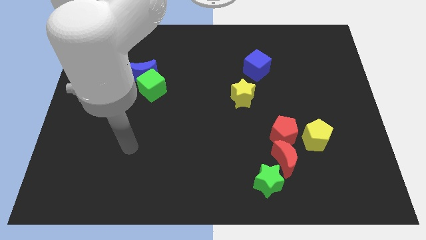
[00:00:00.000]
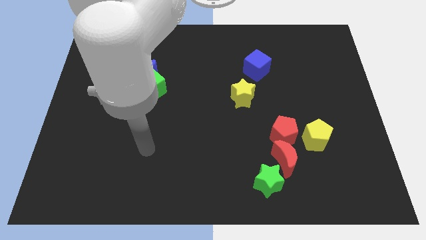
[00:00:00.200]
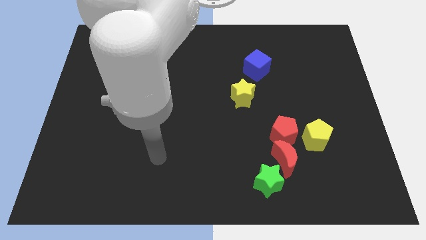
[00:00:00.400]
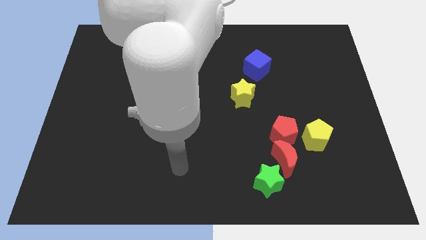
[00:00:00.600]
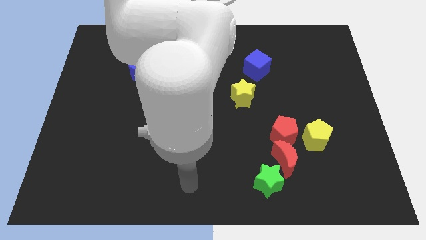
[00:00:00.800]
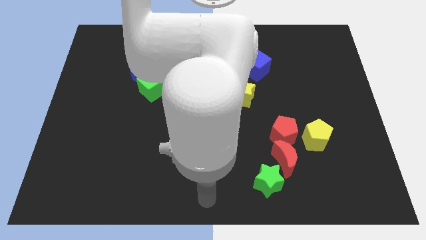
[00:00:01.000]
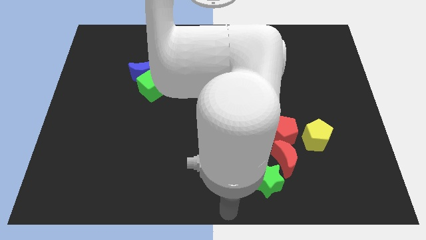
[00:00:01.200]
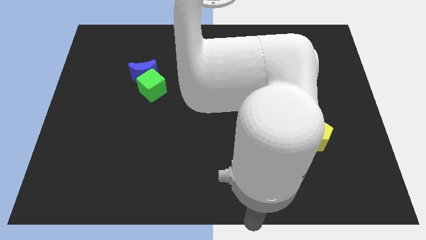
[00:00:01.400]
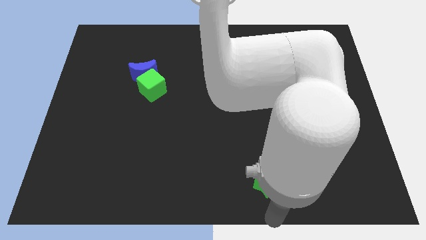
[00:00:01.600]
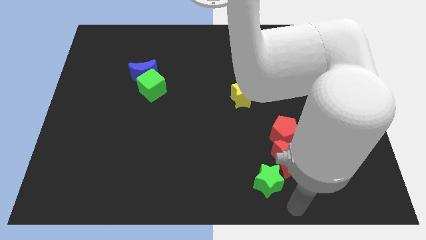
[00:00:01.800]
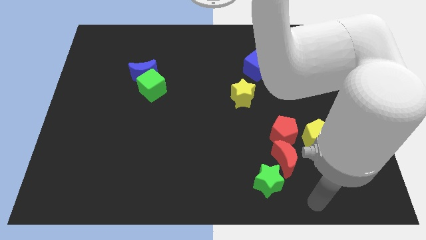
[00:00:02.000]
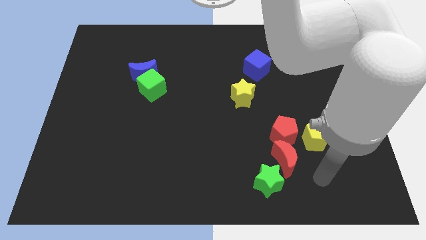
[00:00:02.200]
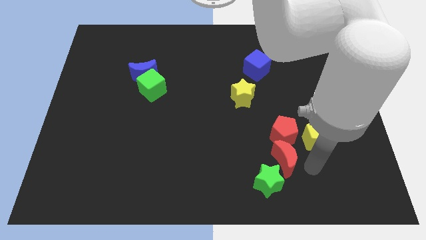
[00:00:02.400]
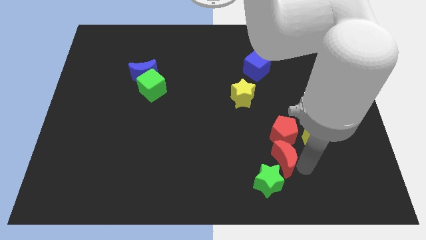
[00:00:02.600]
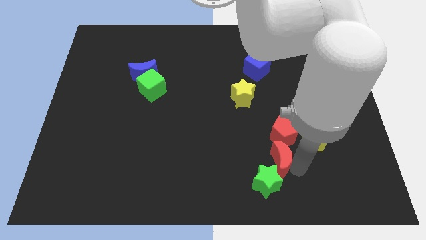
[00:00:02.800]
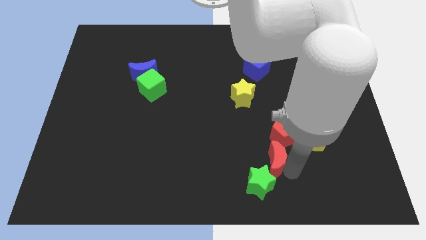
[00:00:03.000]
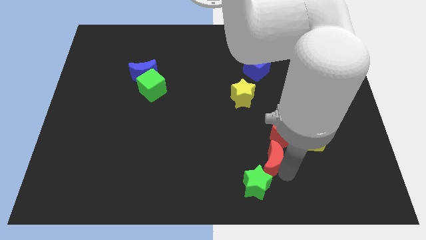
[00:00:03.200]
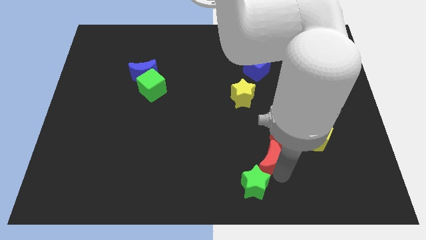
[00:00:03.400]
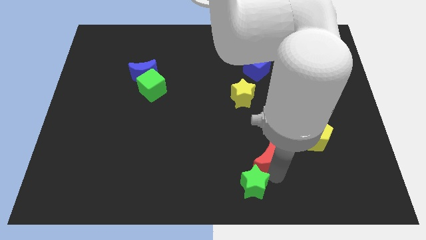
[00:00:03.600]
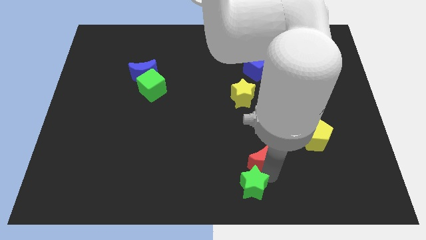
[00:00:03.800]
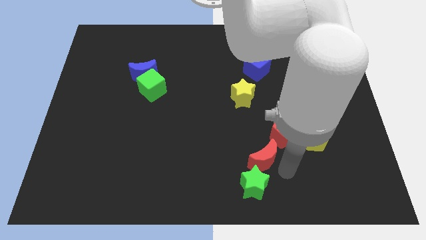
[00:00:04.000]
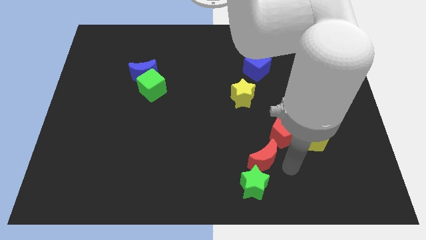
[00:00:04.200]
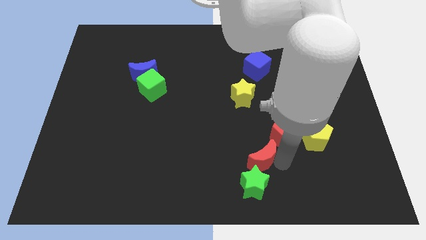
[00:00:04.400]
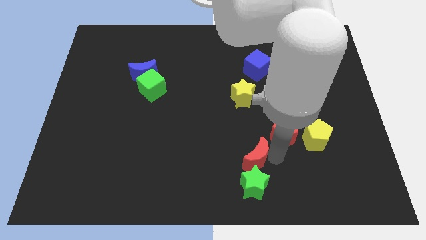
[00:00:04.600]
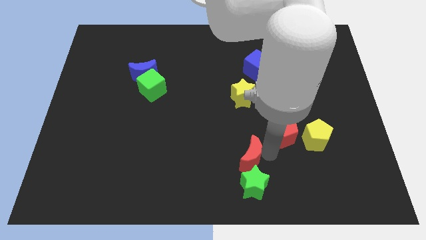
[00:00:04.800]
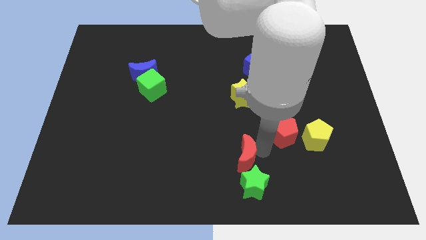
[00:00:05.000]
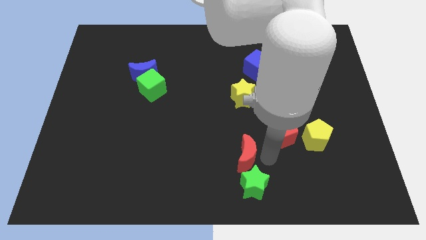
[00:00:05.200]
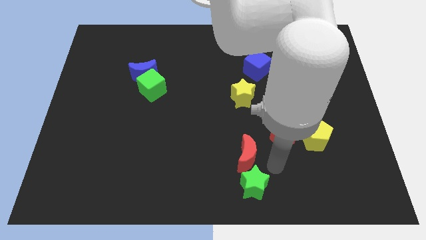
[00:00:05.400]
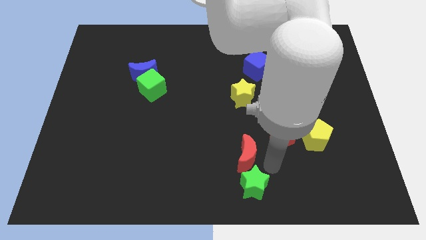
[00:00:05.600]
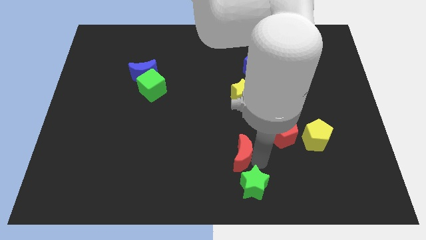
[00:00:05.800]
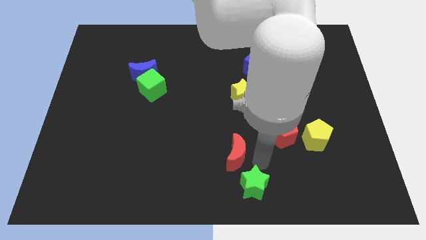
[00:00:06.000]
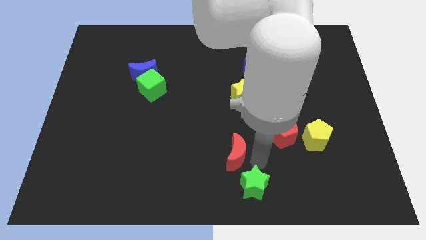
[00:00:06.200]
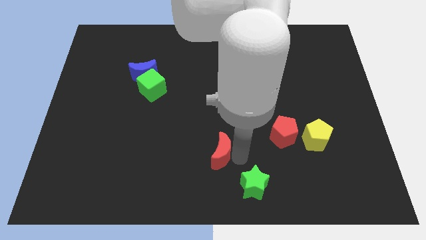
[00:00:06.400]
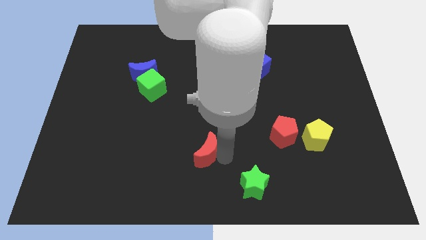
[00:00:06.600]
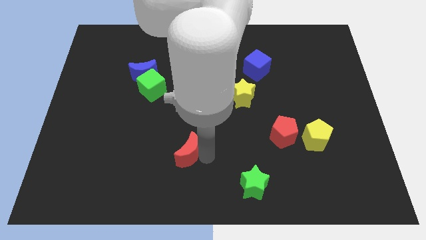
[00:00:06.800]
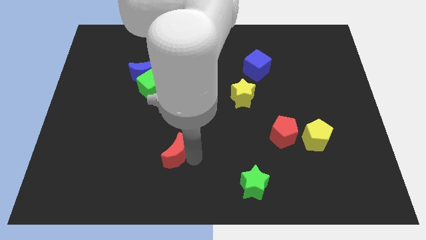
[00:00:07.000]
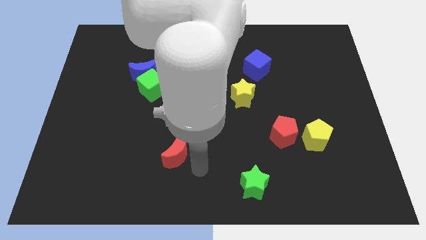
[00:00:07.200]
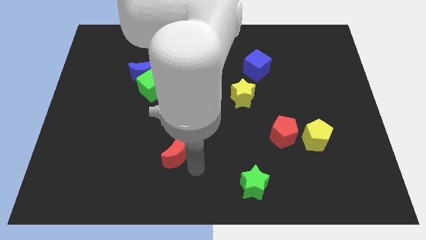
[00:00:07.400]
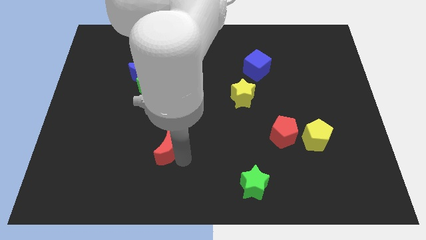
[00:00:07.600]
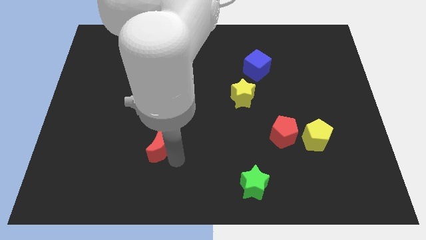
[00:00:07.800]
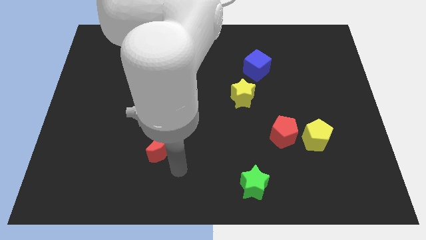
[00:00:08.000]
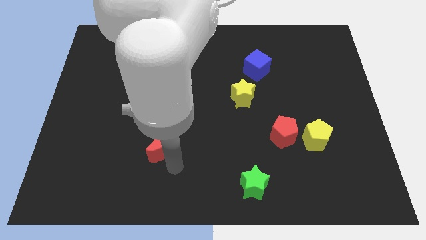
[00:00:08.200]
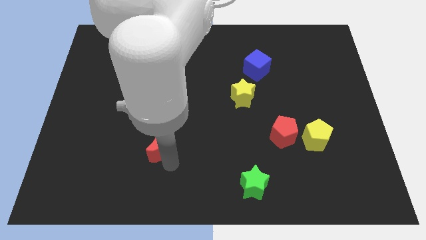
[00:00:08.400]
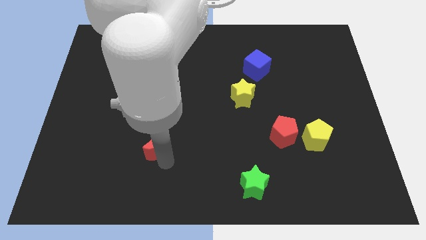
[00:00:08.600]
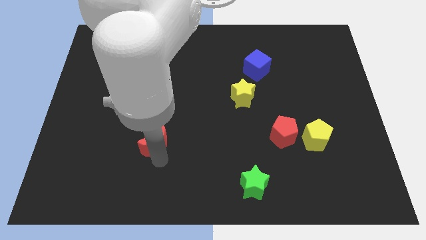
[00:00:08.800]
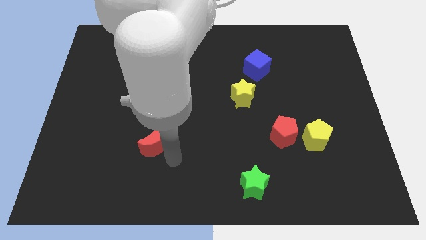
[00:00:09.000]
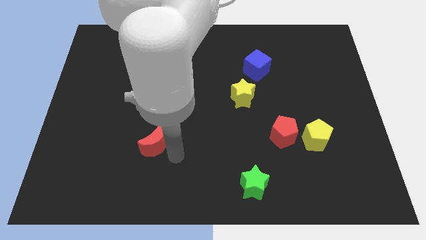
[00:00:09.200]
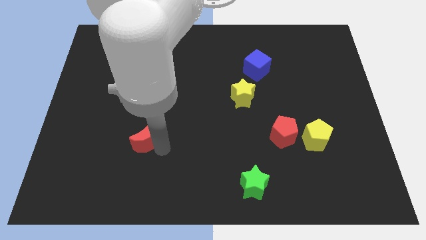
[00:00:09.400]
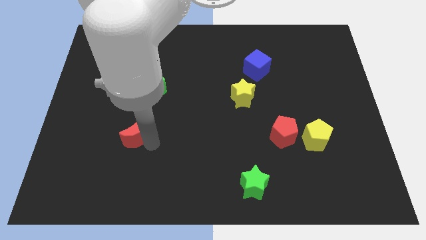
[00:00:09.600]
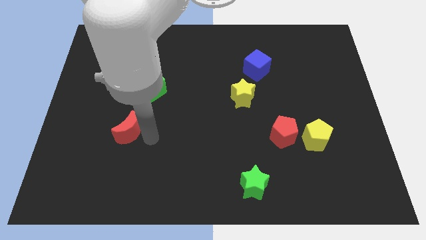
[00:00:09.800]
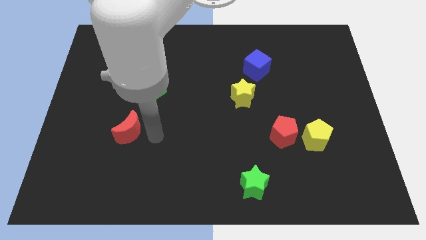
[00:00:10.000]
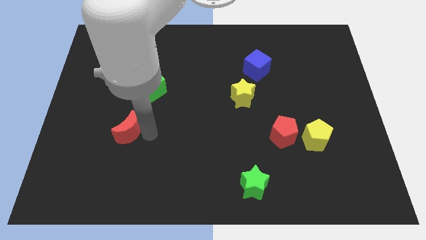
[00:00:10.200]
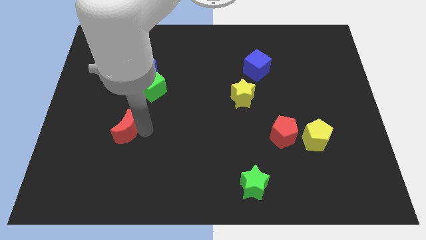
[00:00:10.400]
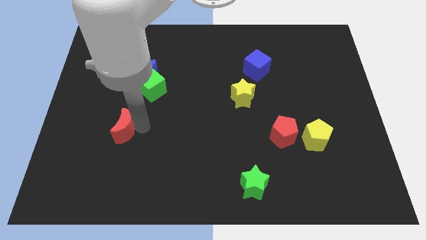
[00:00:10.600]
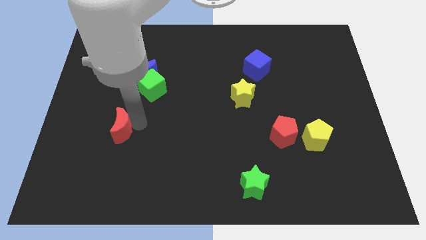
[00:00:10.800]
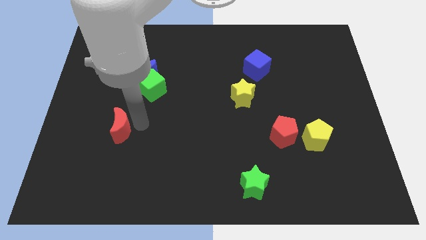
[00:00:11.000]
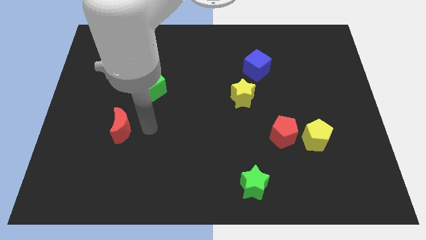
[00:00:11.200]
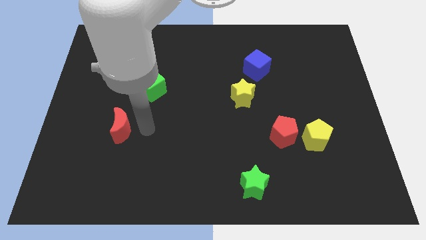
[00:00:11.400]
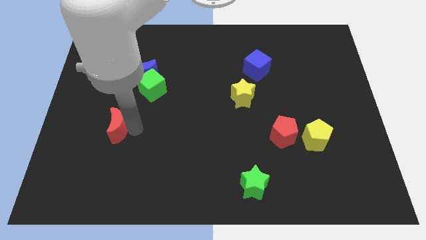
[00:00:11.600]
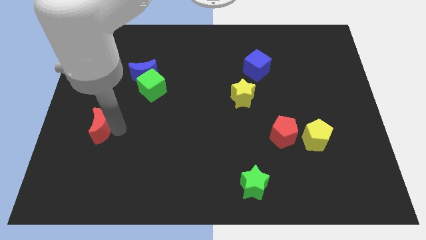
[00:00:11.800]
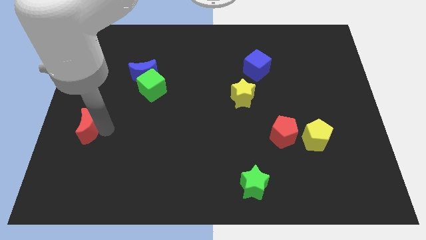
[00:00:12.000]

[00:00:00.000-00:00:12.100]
slide the red moon to the left side
